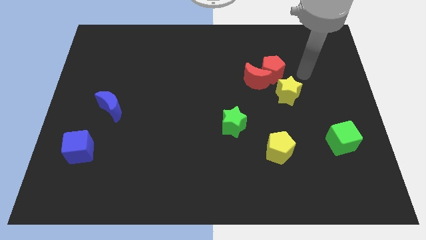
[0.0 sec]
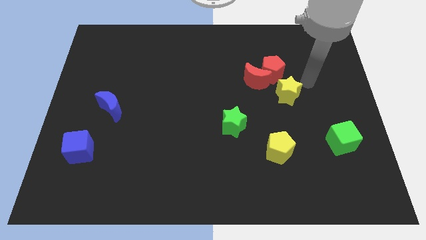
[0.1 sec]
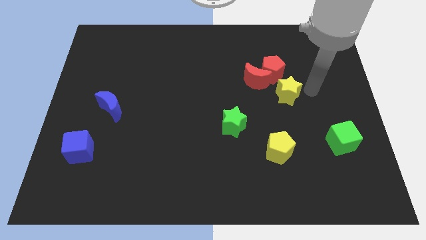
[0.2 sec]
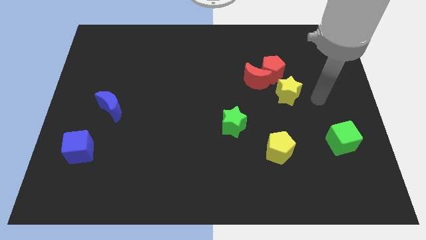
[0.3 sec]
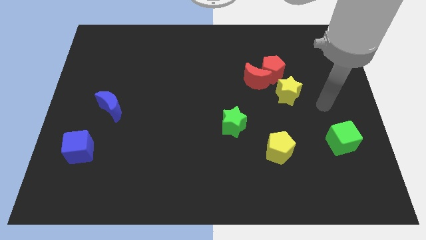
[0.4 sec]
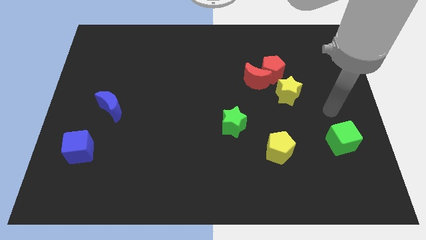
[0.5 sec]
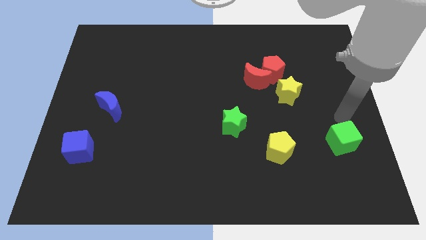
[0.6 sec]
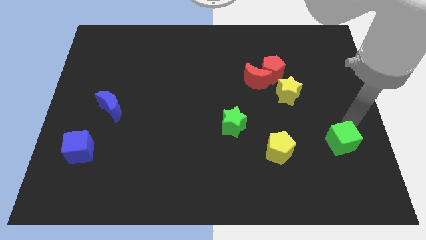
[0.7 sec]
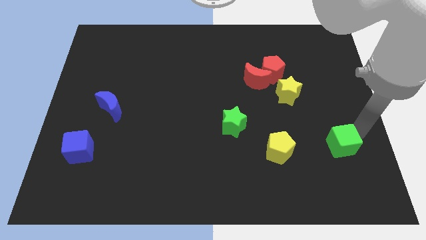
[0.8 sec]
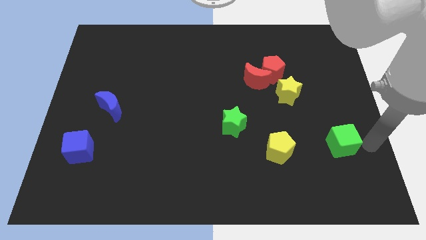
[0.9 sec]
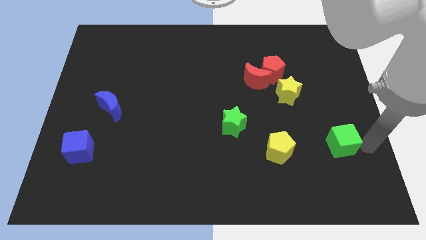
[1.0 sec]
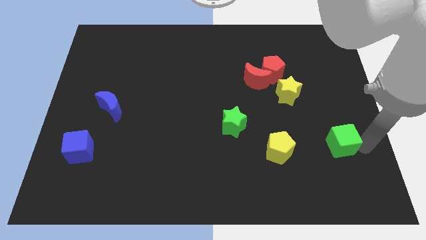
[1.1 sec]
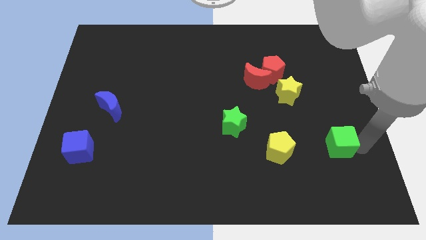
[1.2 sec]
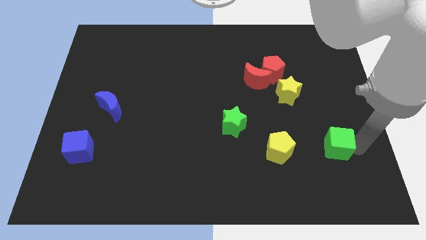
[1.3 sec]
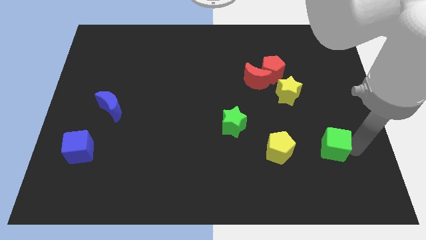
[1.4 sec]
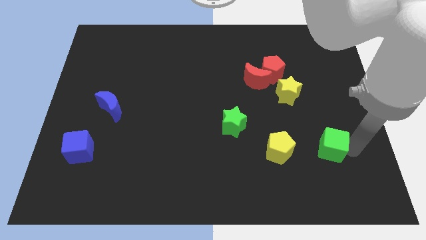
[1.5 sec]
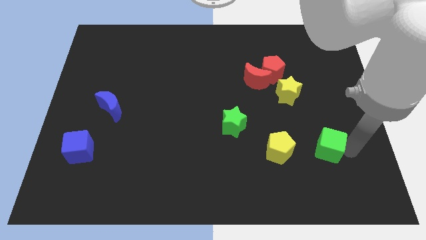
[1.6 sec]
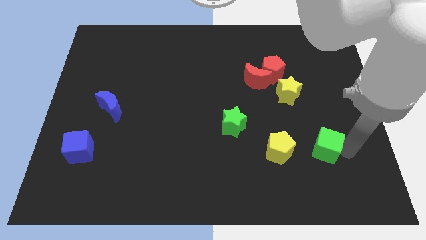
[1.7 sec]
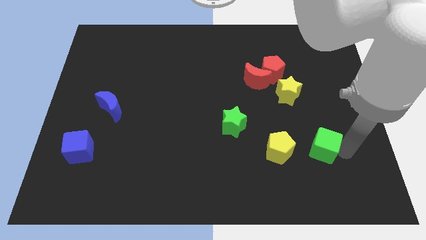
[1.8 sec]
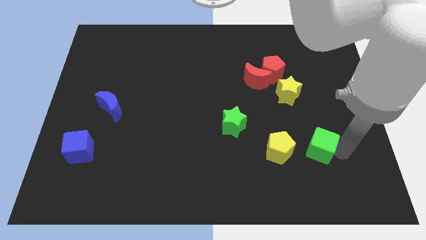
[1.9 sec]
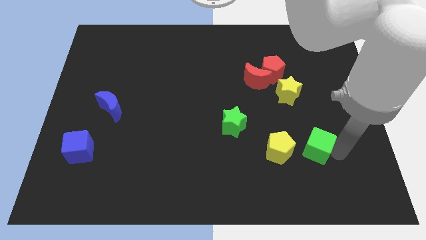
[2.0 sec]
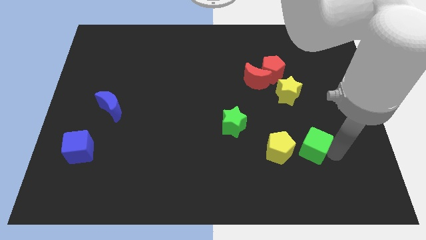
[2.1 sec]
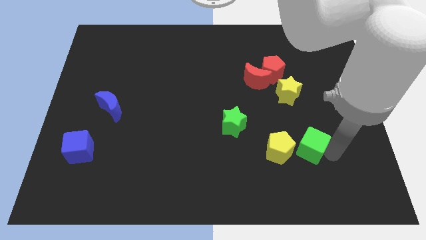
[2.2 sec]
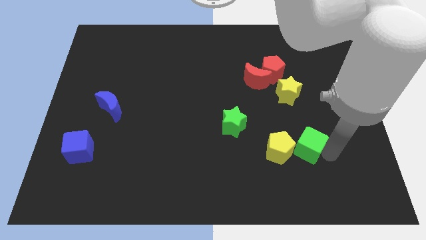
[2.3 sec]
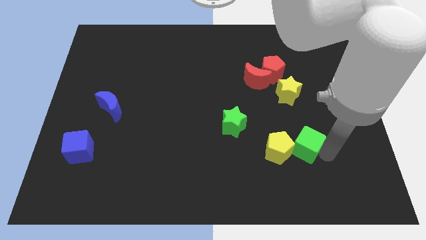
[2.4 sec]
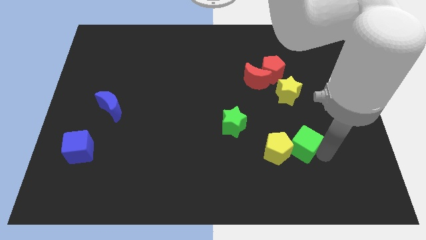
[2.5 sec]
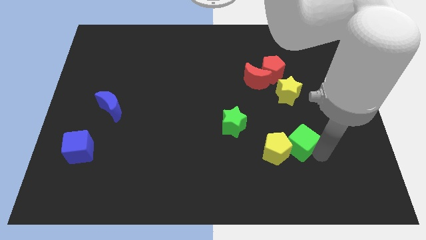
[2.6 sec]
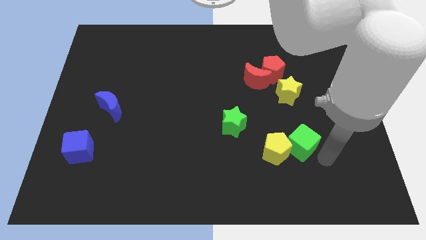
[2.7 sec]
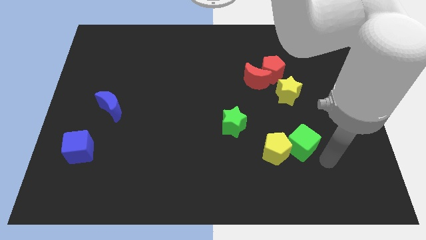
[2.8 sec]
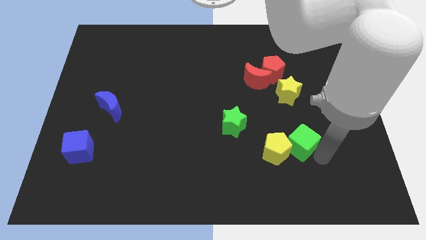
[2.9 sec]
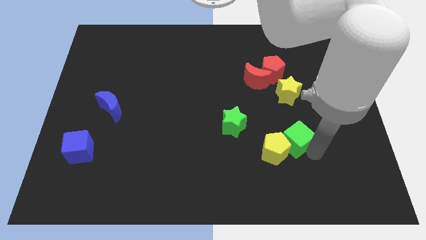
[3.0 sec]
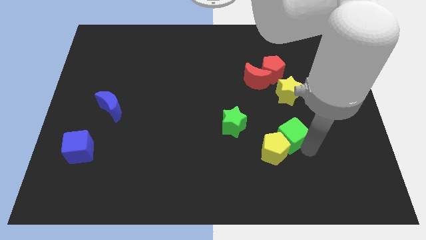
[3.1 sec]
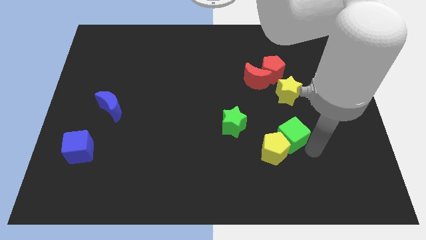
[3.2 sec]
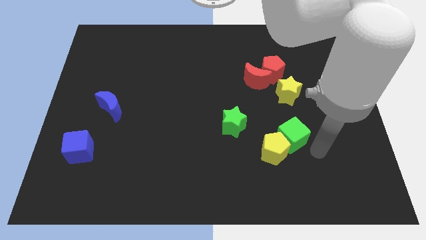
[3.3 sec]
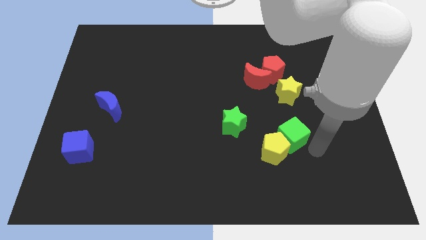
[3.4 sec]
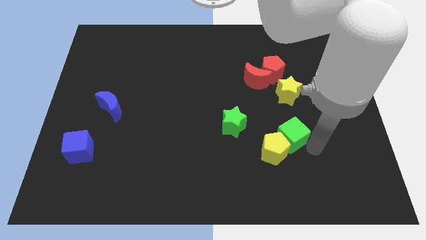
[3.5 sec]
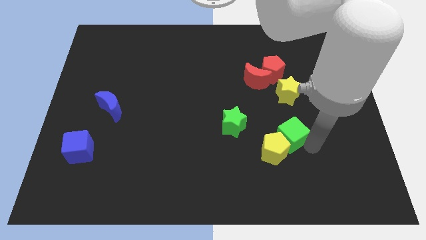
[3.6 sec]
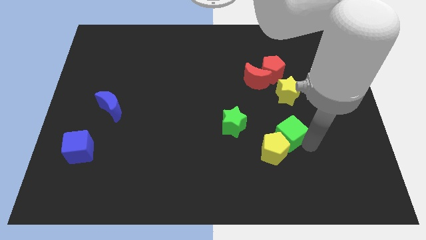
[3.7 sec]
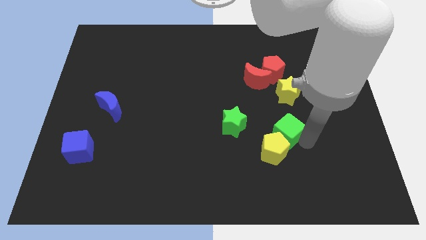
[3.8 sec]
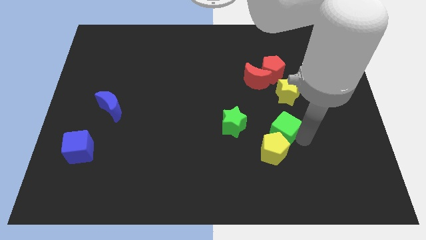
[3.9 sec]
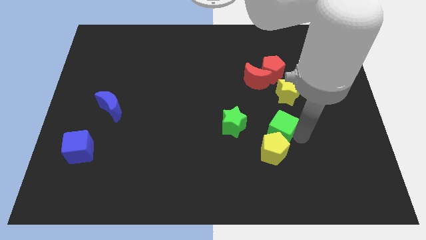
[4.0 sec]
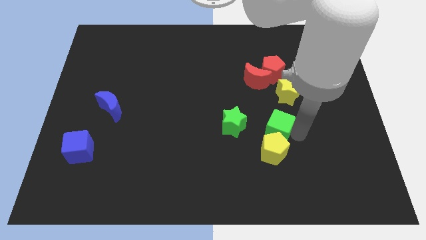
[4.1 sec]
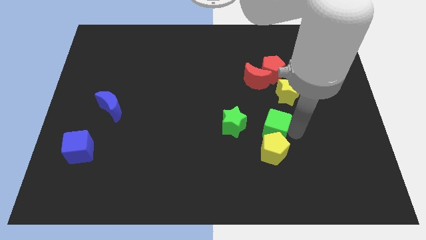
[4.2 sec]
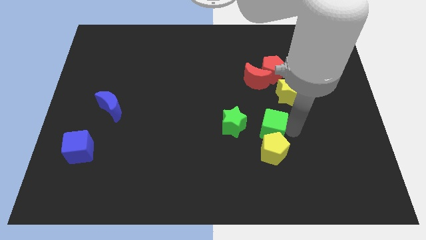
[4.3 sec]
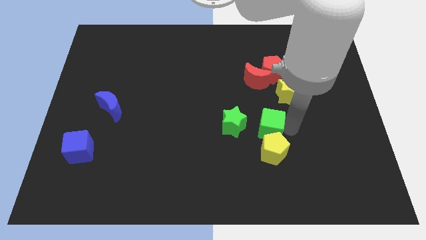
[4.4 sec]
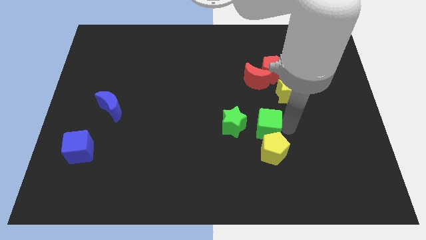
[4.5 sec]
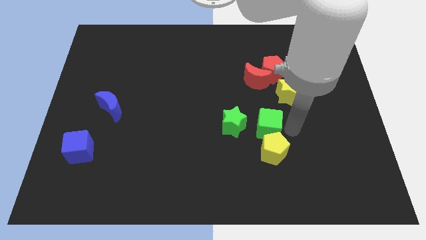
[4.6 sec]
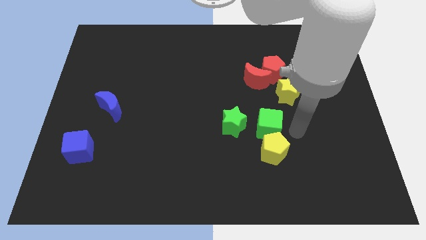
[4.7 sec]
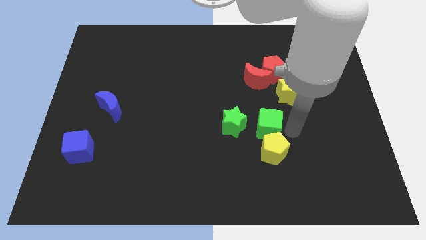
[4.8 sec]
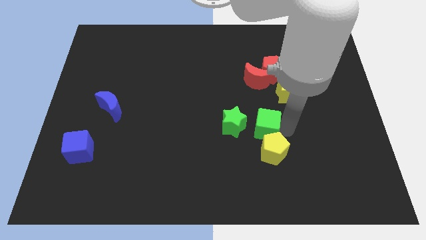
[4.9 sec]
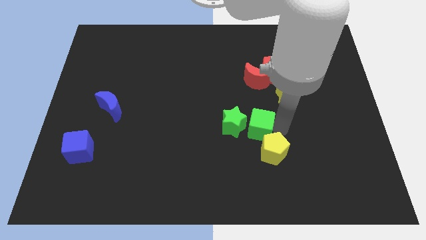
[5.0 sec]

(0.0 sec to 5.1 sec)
move the green cube close to the green star

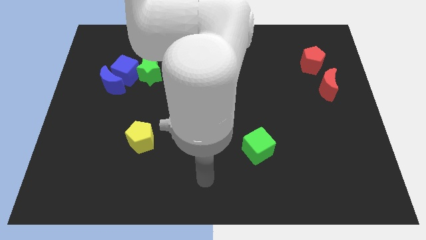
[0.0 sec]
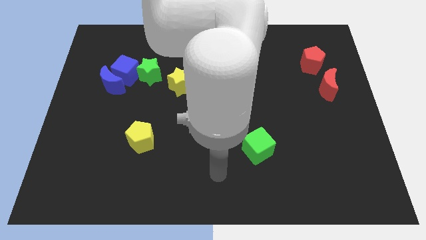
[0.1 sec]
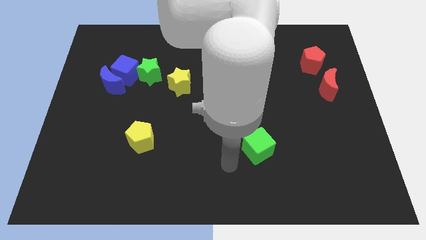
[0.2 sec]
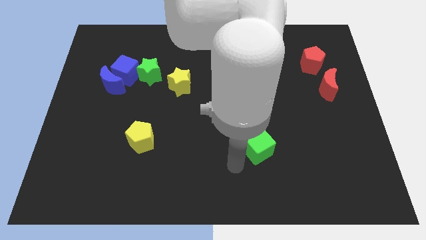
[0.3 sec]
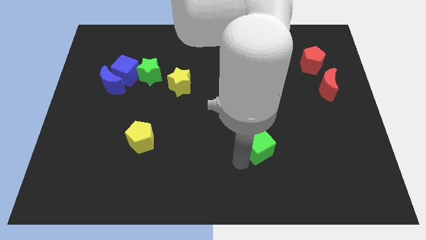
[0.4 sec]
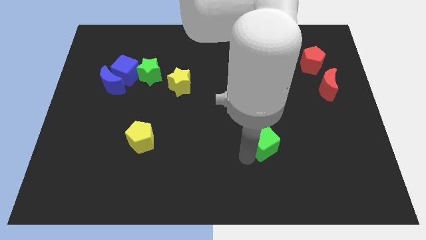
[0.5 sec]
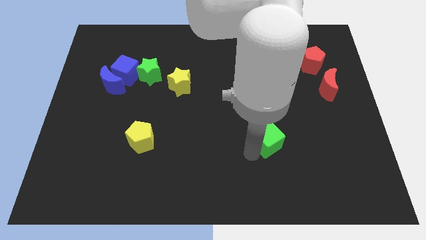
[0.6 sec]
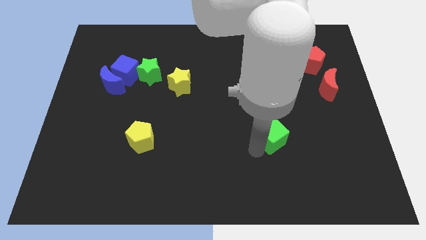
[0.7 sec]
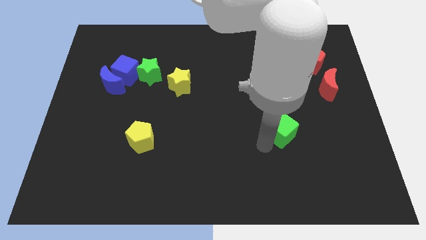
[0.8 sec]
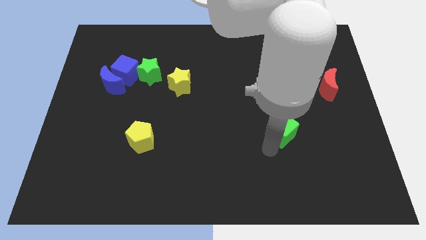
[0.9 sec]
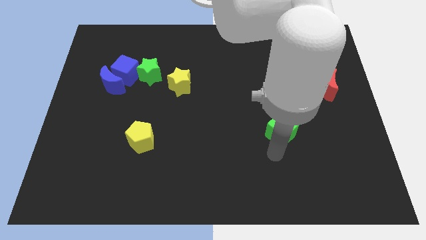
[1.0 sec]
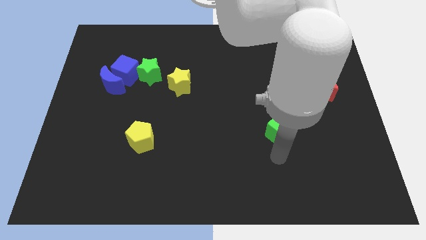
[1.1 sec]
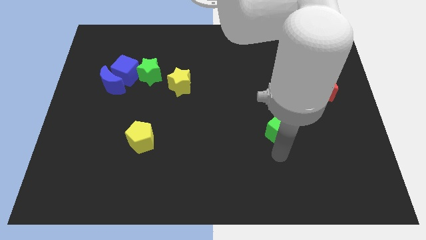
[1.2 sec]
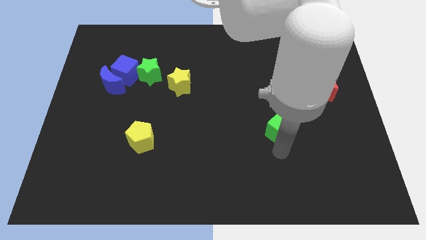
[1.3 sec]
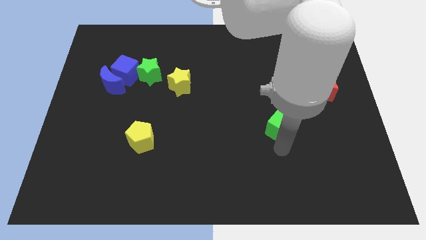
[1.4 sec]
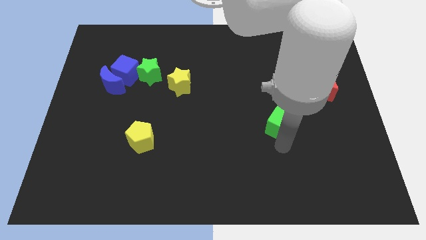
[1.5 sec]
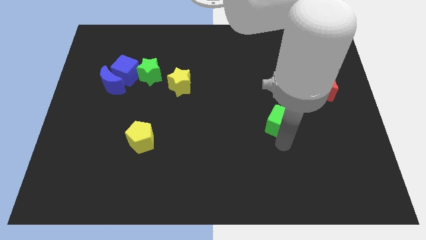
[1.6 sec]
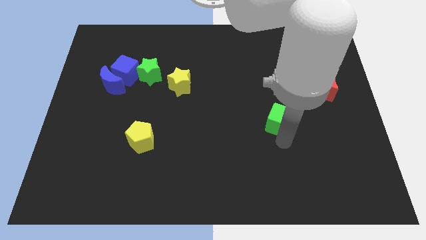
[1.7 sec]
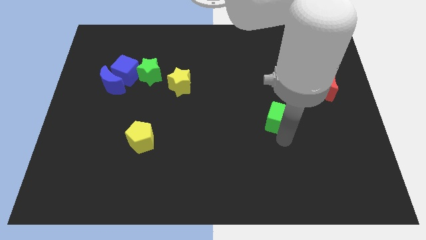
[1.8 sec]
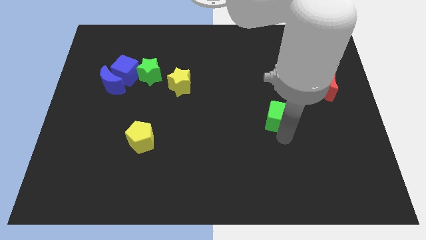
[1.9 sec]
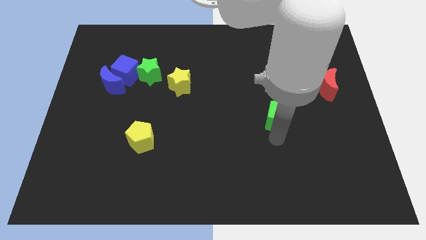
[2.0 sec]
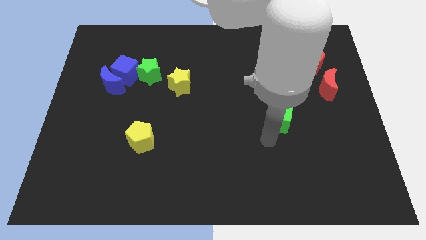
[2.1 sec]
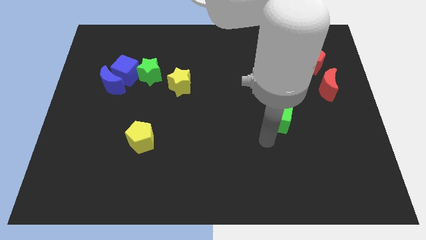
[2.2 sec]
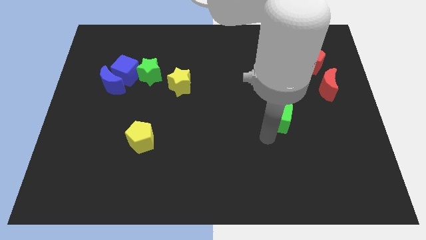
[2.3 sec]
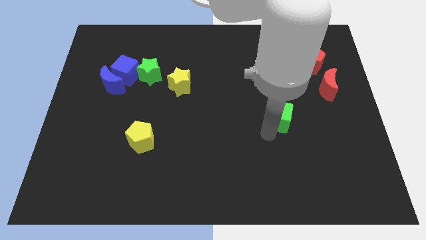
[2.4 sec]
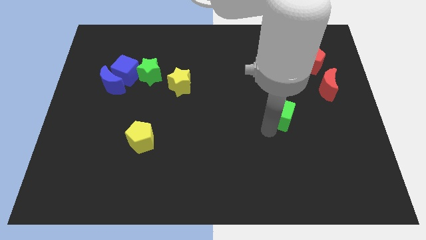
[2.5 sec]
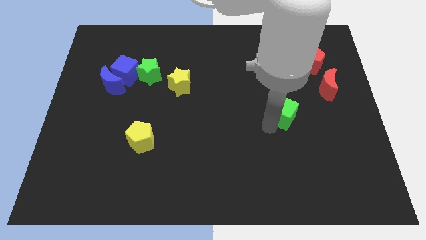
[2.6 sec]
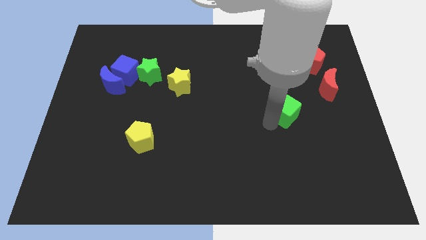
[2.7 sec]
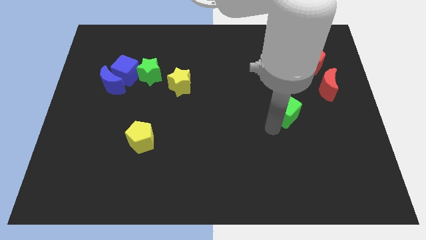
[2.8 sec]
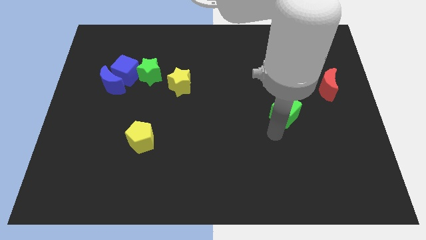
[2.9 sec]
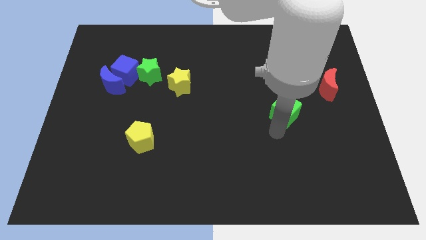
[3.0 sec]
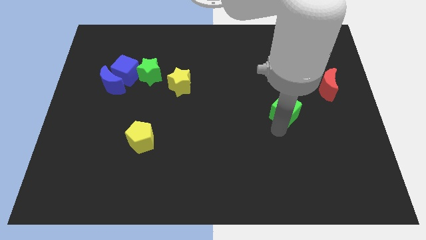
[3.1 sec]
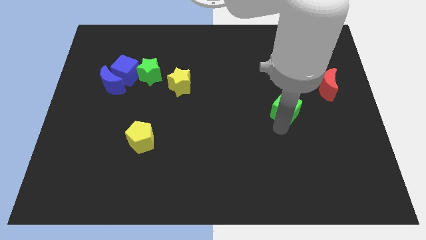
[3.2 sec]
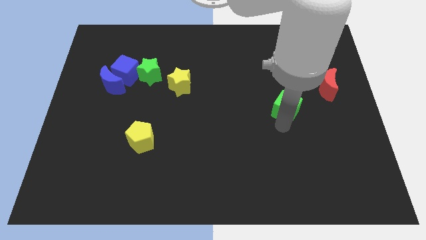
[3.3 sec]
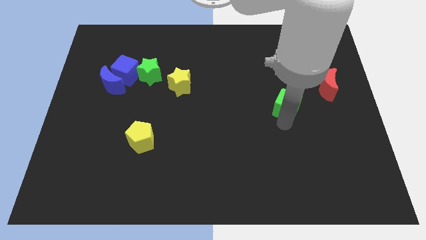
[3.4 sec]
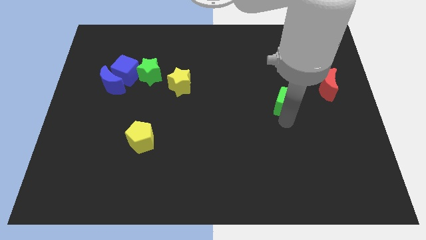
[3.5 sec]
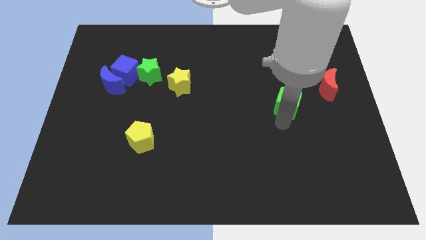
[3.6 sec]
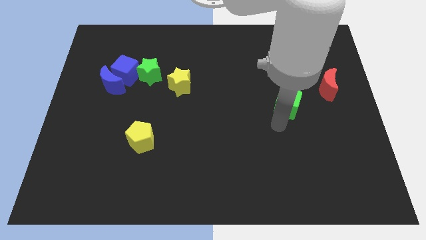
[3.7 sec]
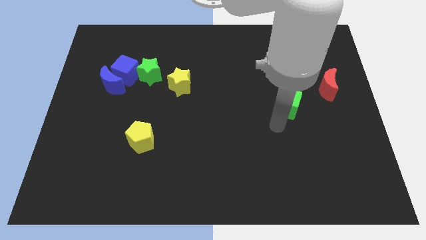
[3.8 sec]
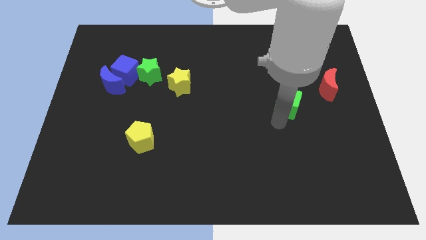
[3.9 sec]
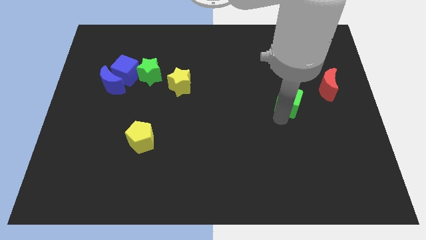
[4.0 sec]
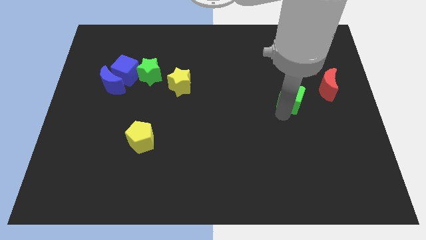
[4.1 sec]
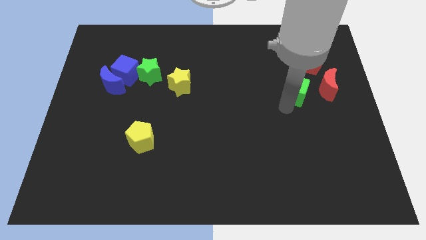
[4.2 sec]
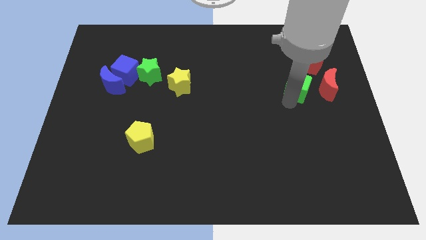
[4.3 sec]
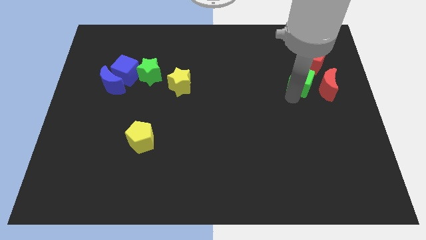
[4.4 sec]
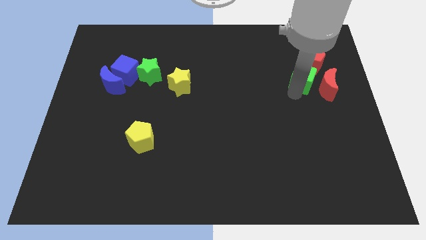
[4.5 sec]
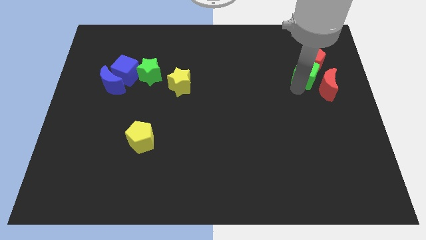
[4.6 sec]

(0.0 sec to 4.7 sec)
put the green cube close to the red pentagon
